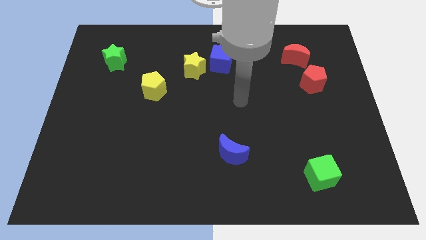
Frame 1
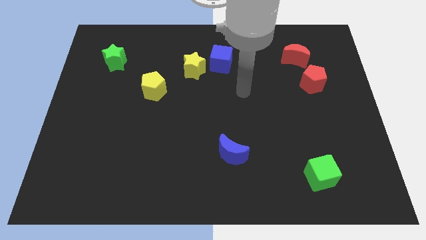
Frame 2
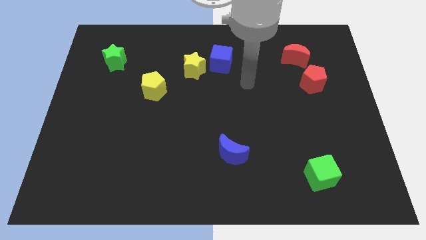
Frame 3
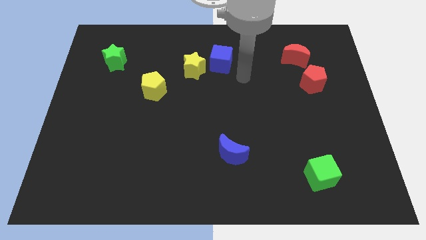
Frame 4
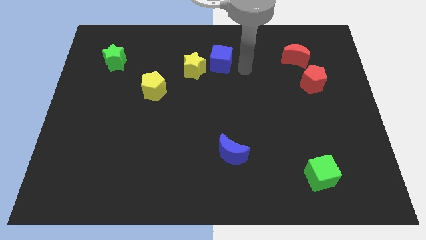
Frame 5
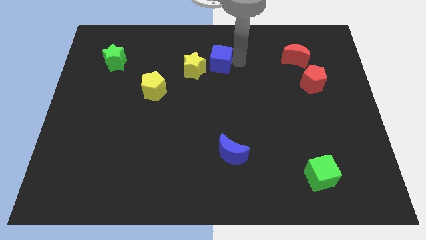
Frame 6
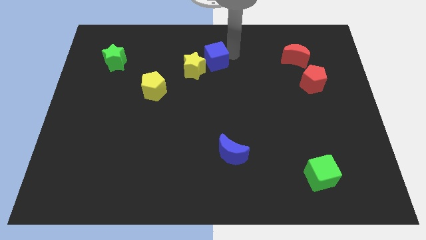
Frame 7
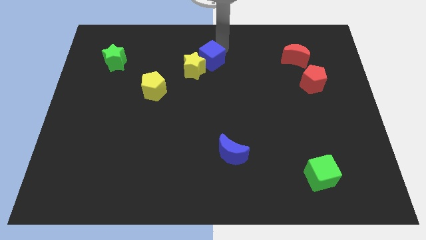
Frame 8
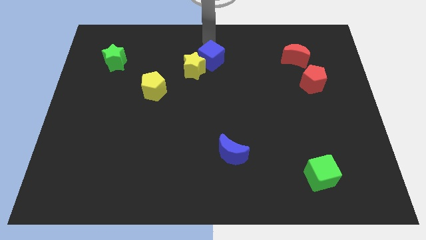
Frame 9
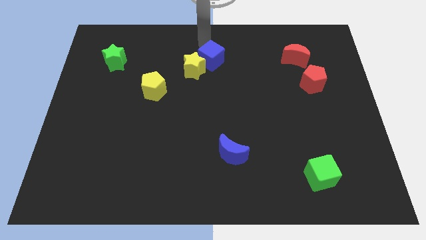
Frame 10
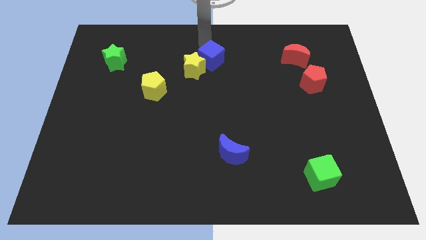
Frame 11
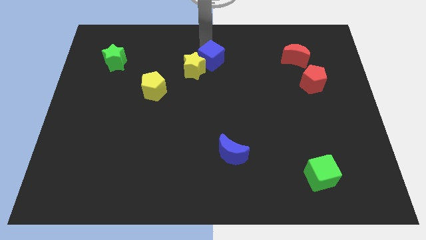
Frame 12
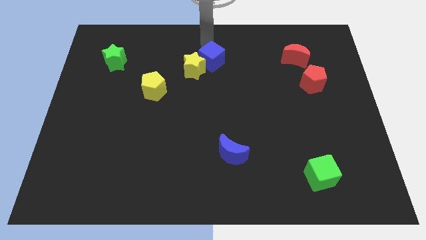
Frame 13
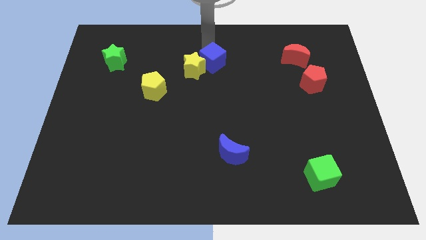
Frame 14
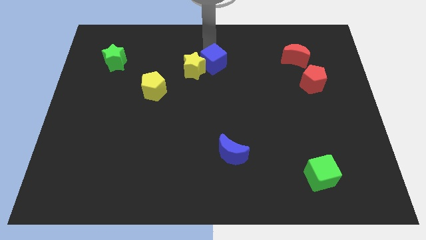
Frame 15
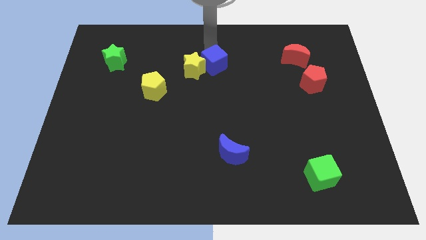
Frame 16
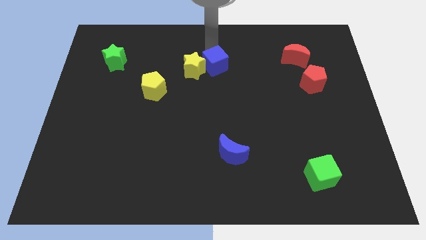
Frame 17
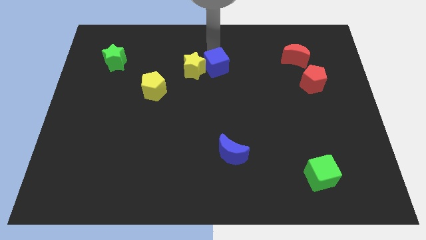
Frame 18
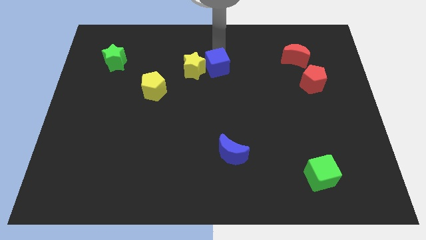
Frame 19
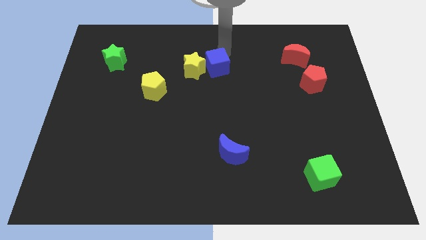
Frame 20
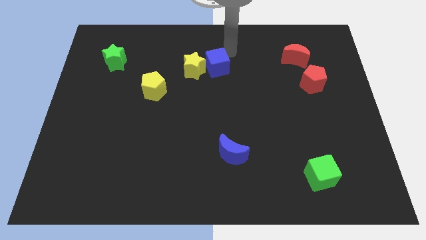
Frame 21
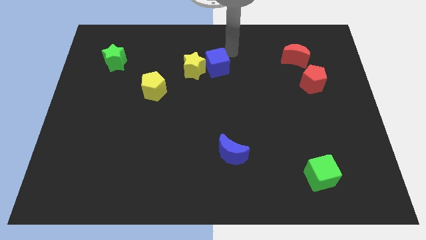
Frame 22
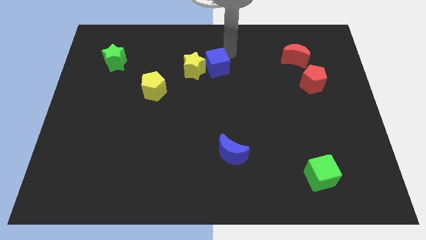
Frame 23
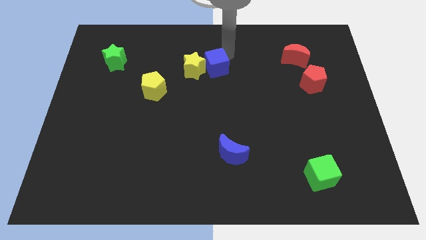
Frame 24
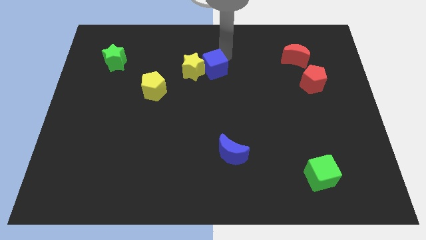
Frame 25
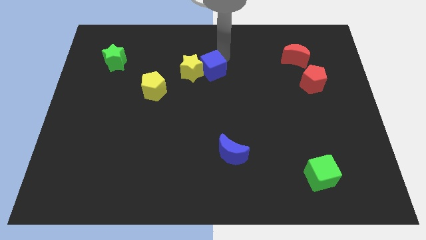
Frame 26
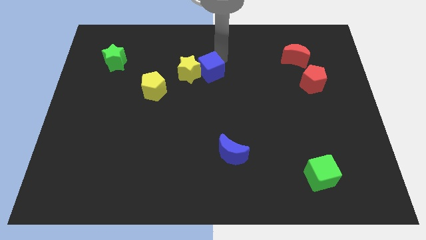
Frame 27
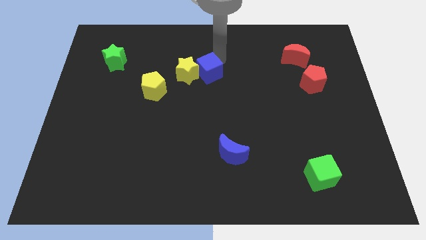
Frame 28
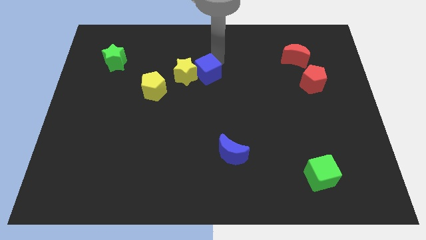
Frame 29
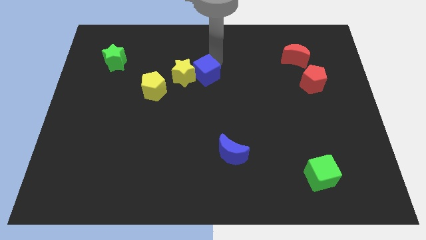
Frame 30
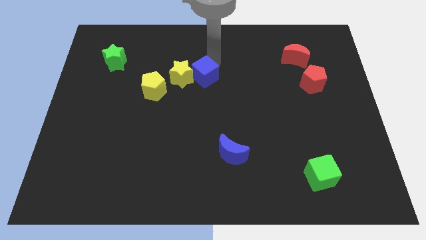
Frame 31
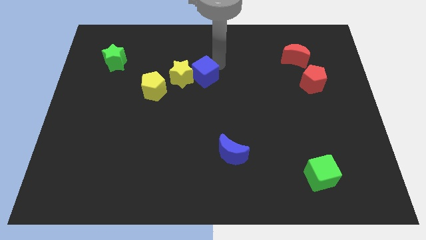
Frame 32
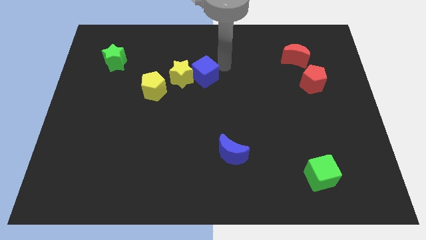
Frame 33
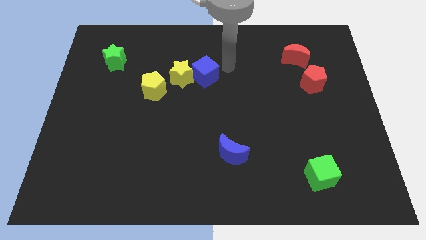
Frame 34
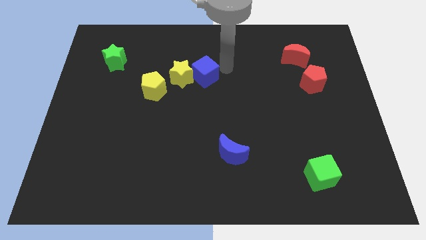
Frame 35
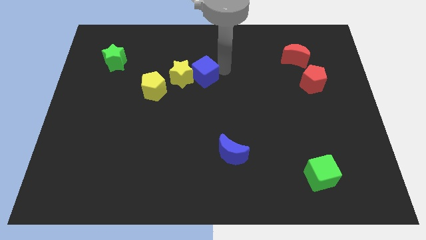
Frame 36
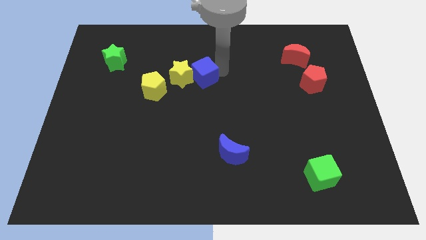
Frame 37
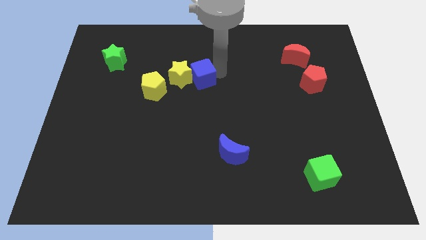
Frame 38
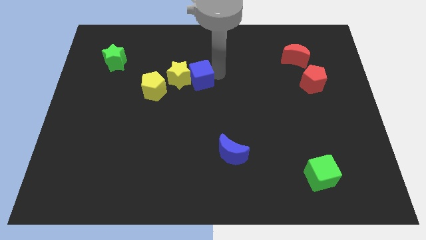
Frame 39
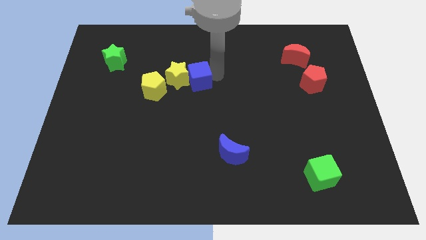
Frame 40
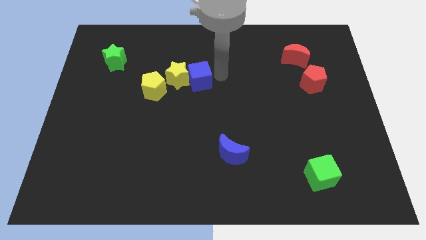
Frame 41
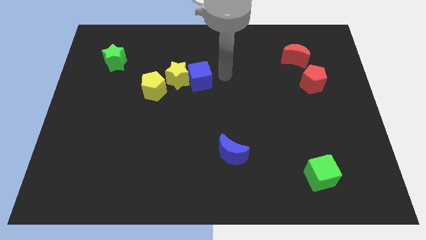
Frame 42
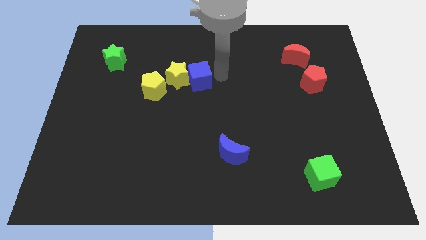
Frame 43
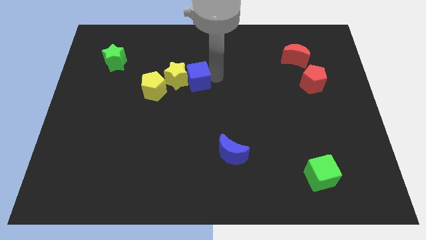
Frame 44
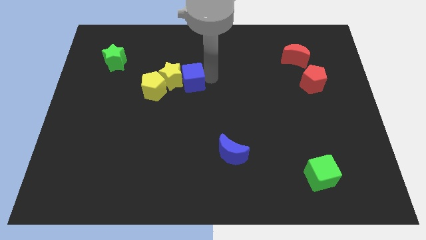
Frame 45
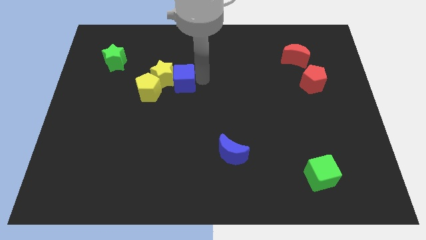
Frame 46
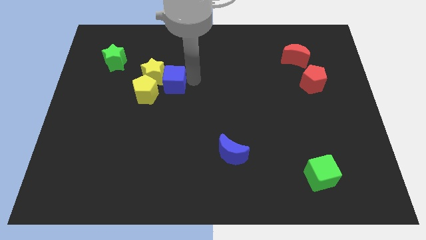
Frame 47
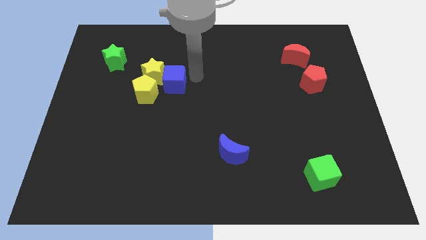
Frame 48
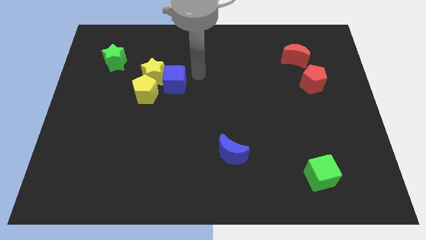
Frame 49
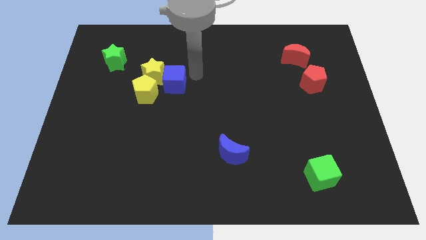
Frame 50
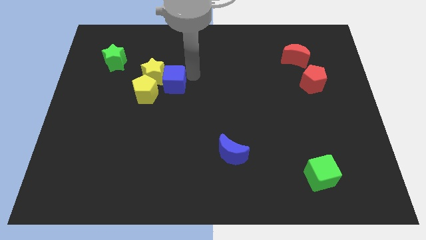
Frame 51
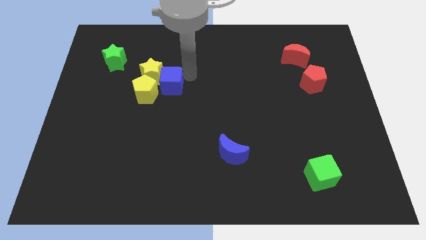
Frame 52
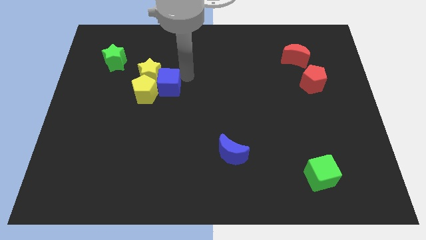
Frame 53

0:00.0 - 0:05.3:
put the blue cube close to the yellow pentagon

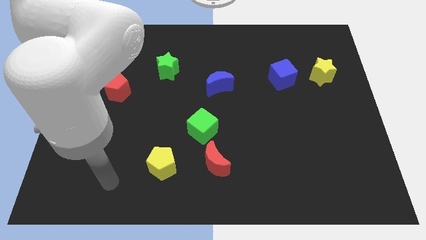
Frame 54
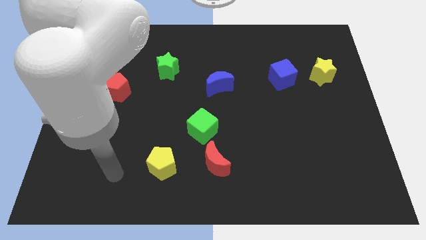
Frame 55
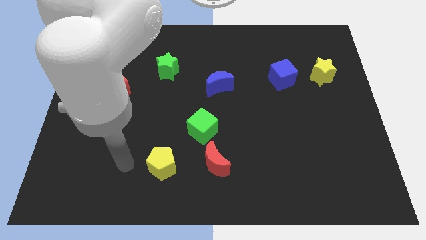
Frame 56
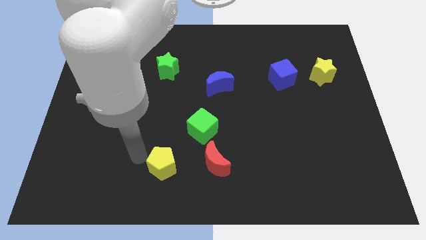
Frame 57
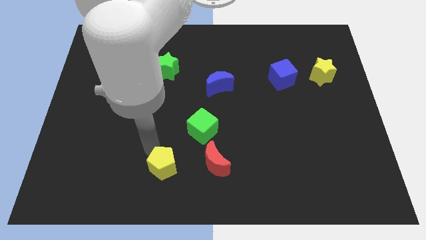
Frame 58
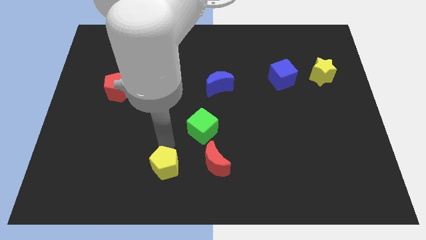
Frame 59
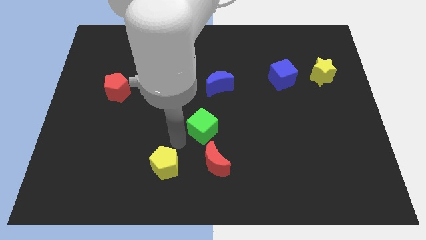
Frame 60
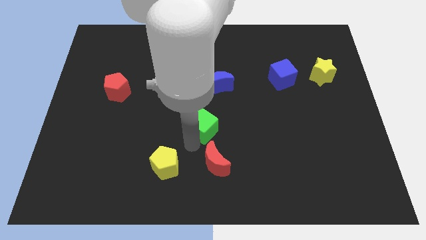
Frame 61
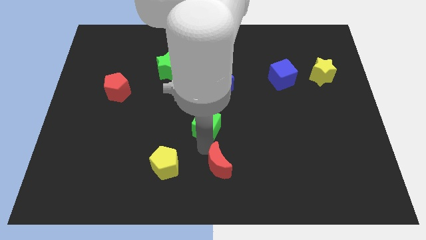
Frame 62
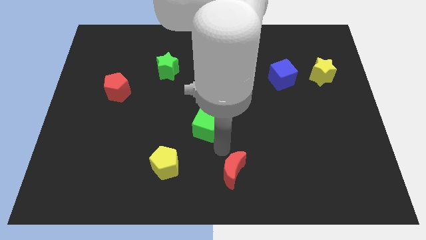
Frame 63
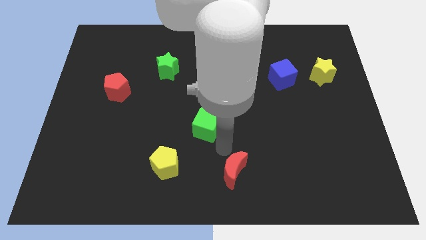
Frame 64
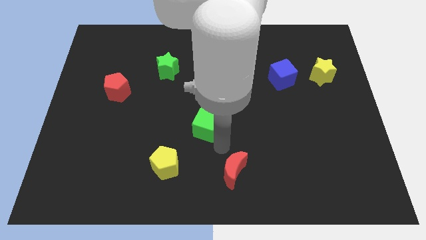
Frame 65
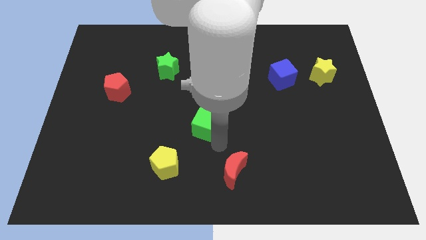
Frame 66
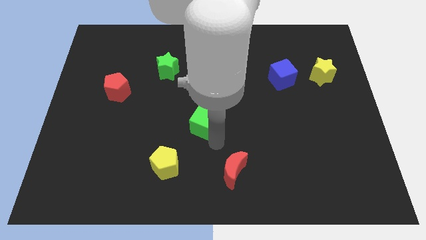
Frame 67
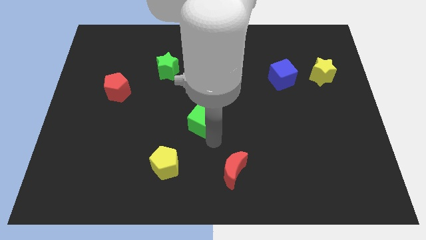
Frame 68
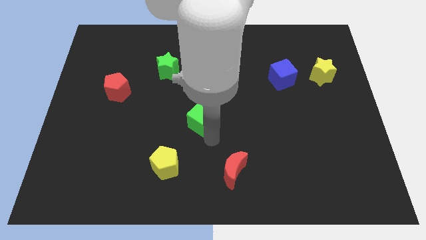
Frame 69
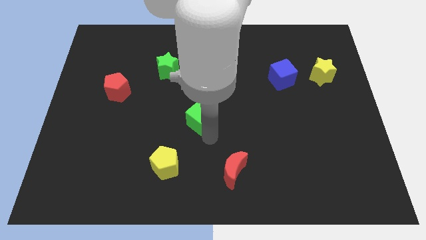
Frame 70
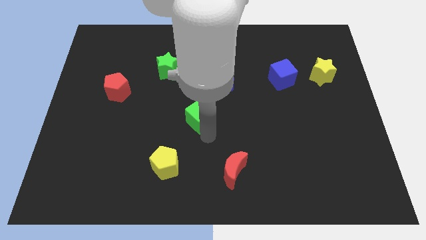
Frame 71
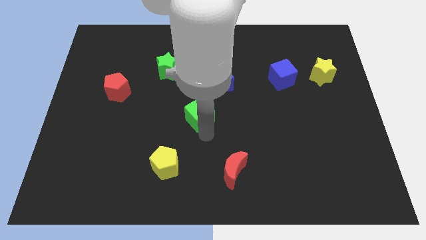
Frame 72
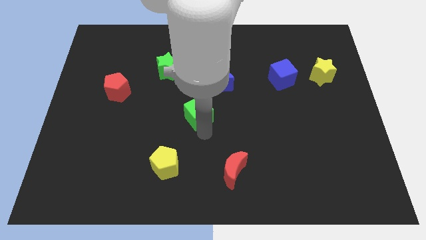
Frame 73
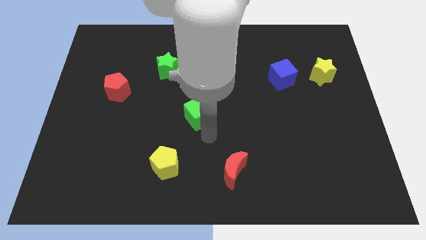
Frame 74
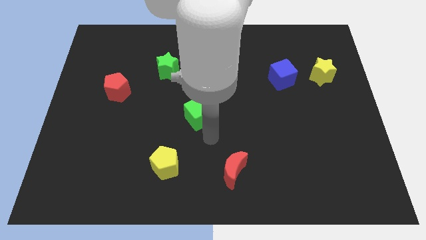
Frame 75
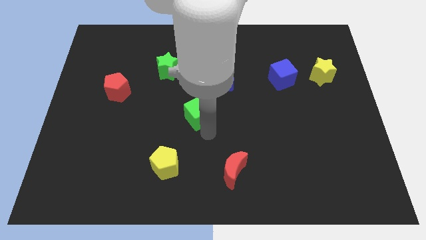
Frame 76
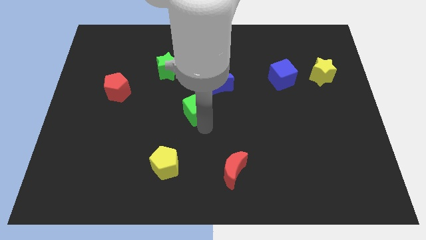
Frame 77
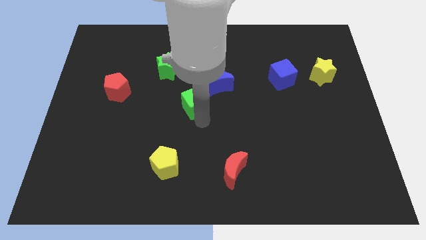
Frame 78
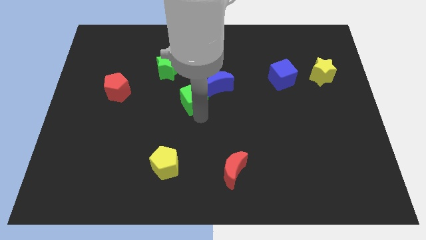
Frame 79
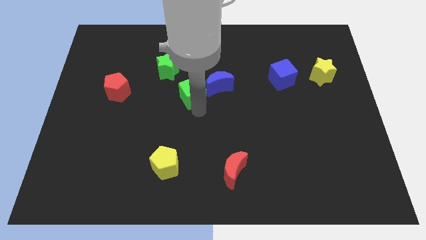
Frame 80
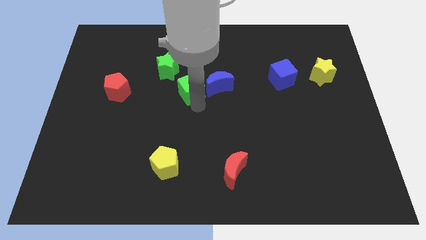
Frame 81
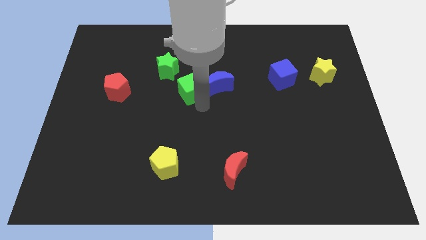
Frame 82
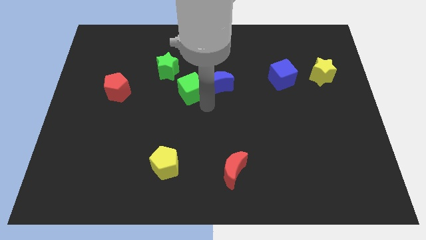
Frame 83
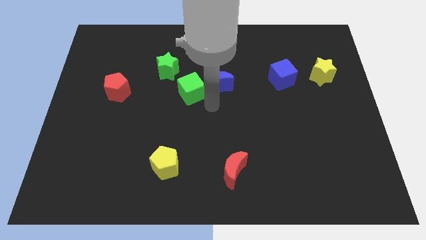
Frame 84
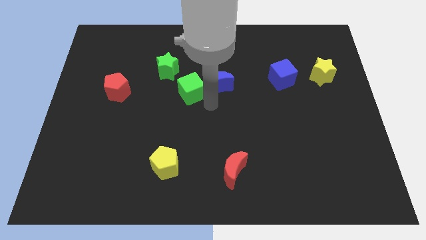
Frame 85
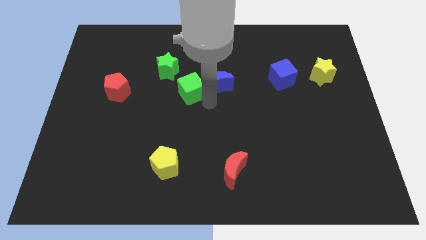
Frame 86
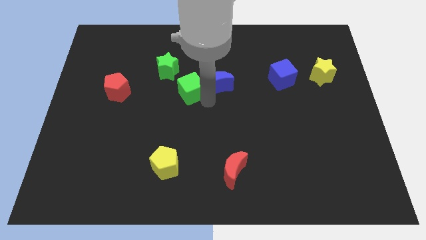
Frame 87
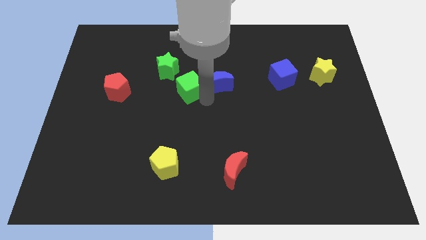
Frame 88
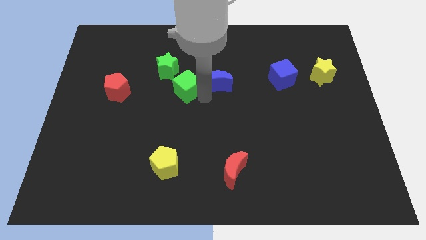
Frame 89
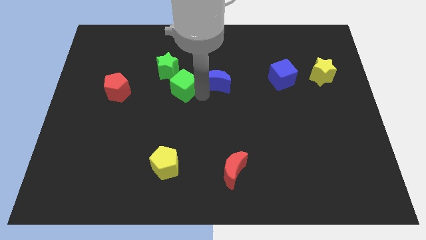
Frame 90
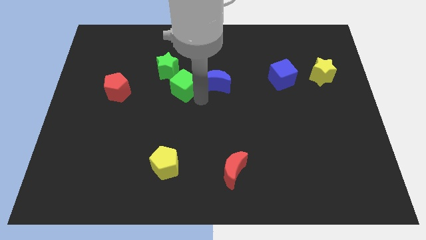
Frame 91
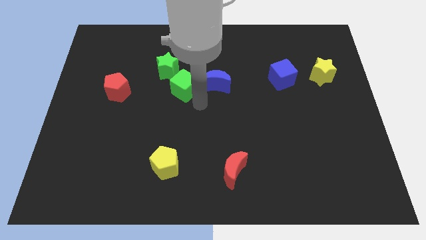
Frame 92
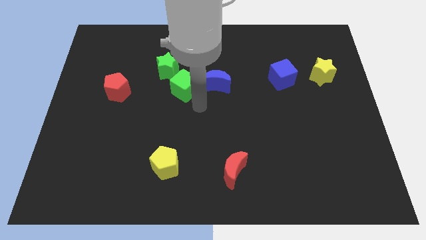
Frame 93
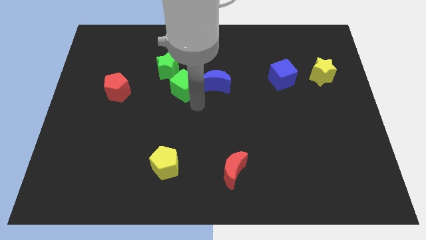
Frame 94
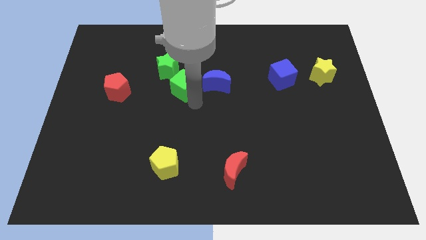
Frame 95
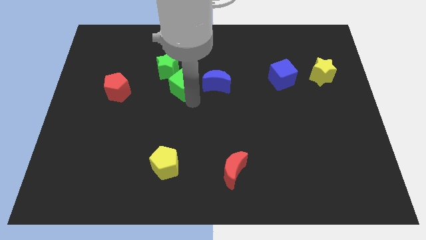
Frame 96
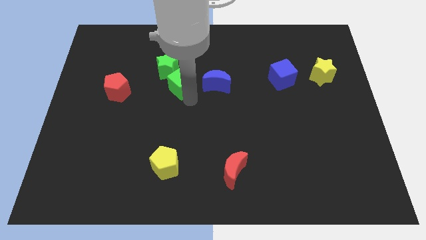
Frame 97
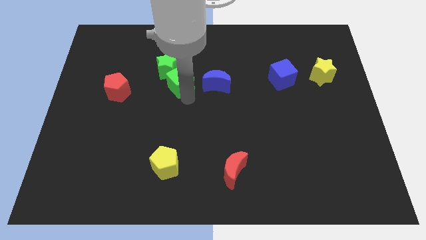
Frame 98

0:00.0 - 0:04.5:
put the green cube towards the green star
